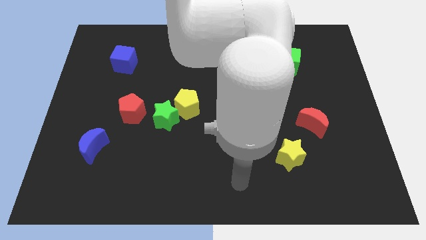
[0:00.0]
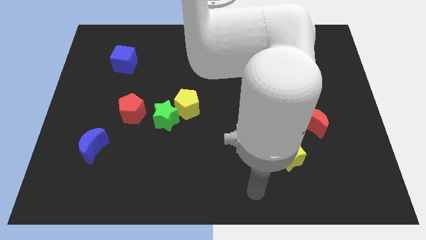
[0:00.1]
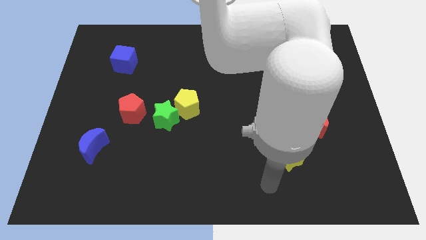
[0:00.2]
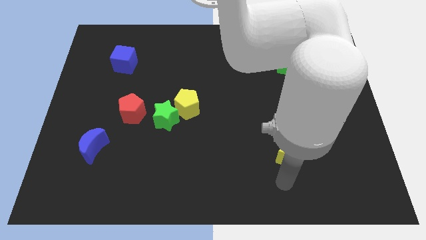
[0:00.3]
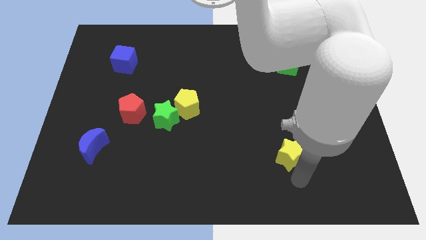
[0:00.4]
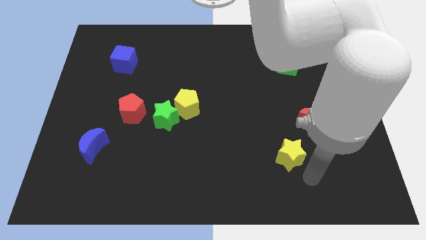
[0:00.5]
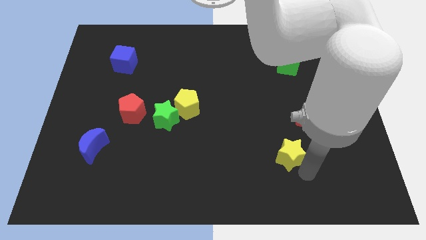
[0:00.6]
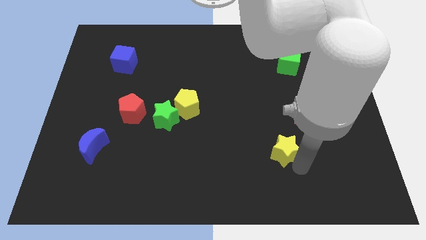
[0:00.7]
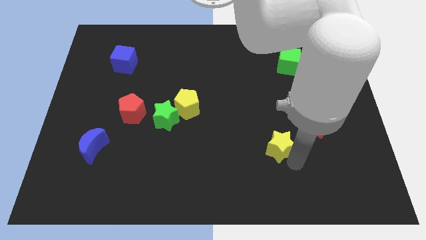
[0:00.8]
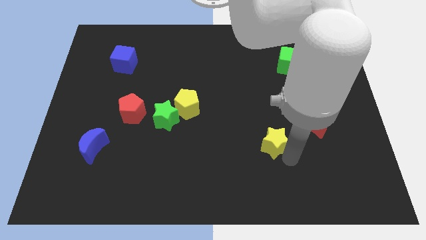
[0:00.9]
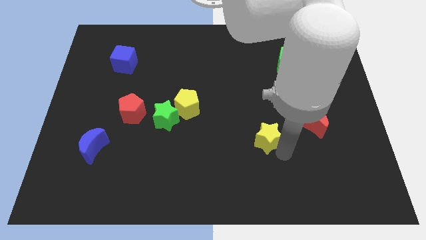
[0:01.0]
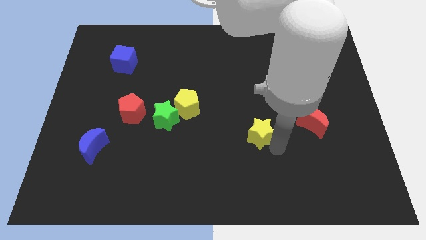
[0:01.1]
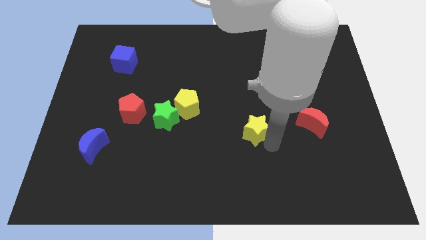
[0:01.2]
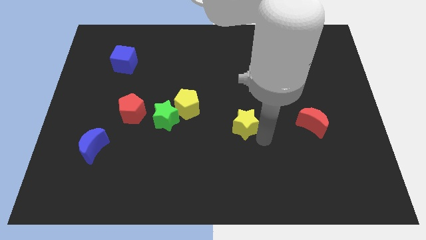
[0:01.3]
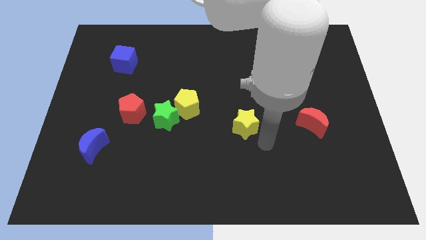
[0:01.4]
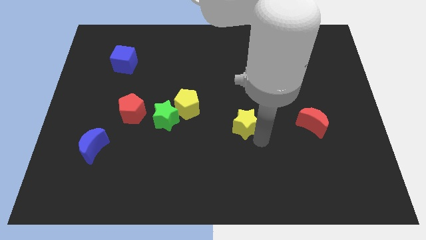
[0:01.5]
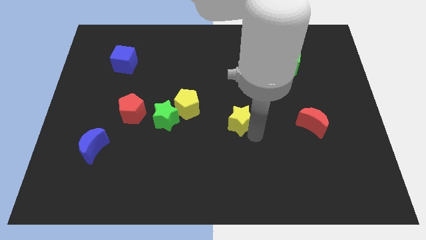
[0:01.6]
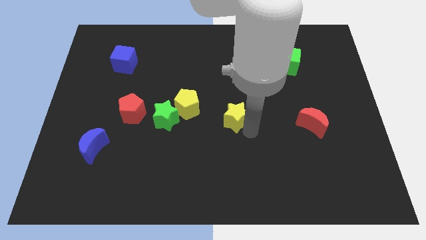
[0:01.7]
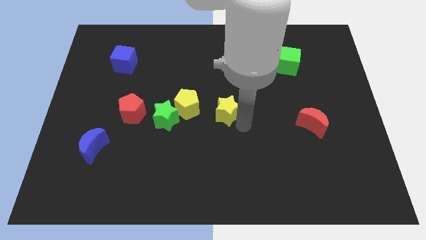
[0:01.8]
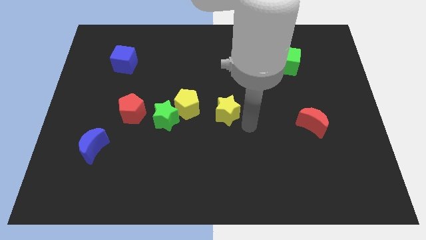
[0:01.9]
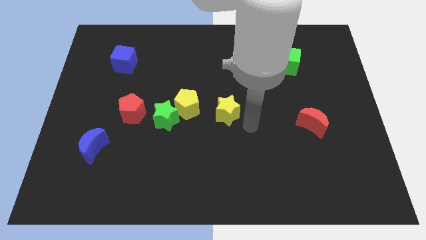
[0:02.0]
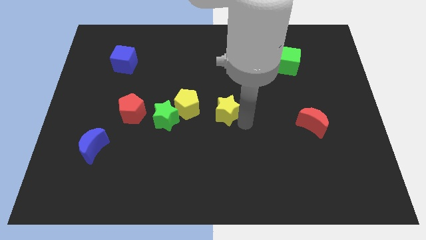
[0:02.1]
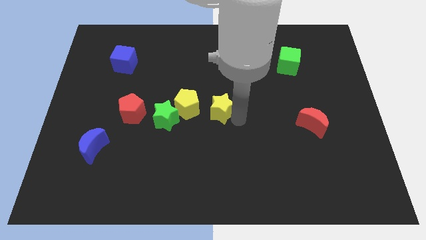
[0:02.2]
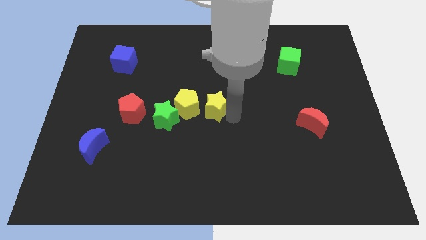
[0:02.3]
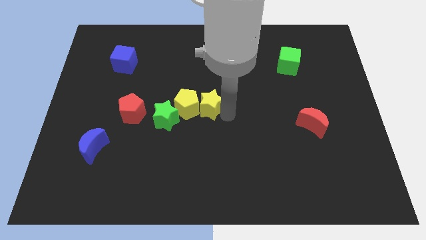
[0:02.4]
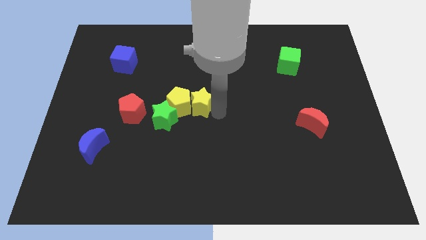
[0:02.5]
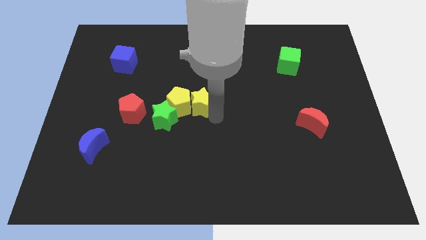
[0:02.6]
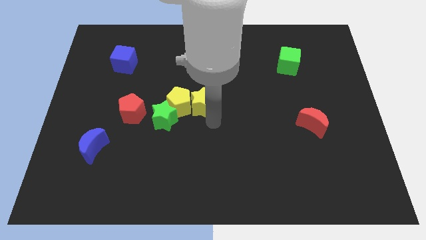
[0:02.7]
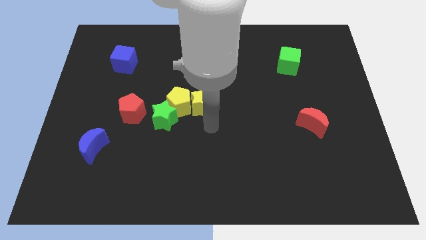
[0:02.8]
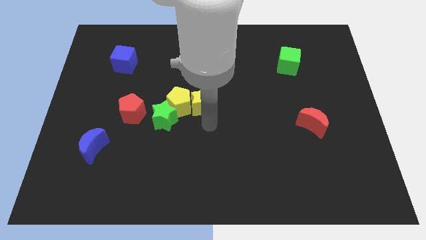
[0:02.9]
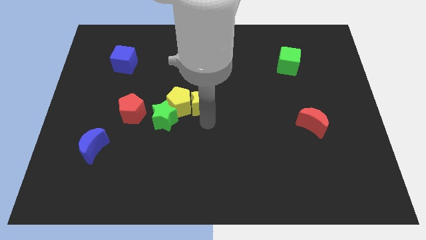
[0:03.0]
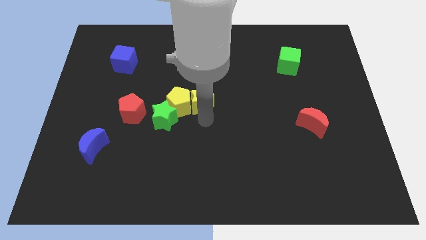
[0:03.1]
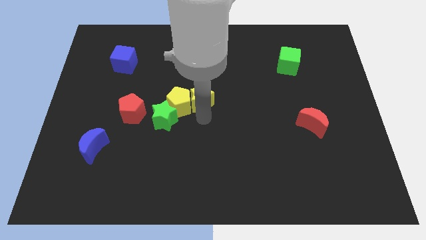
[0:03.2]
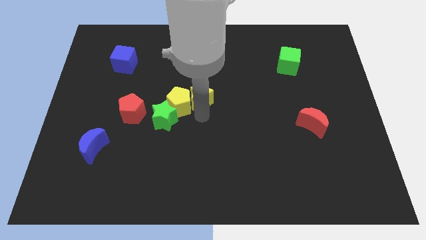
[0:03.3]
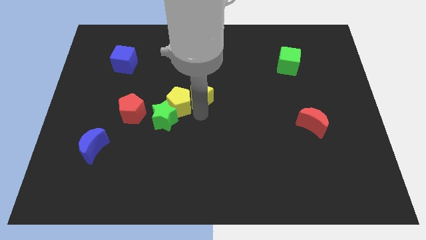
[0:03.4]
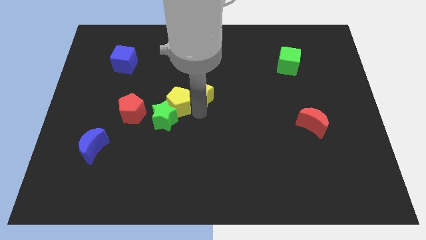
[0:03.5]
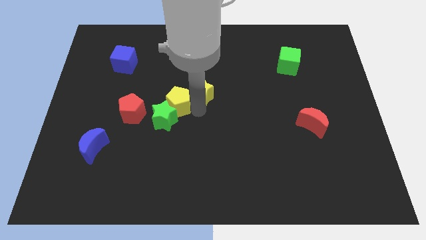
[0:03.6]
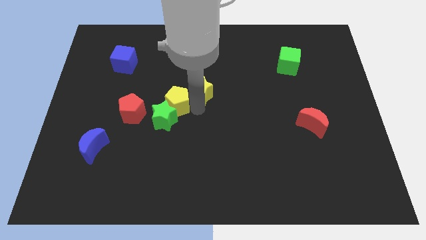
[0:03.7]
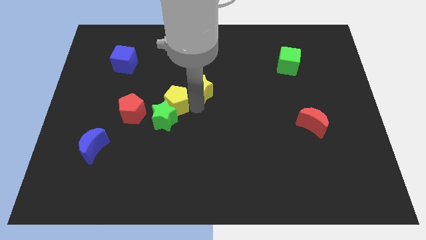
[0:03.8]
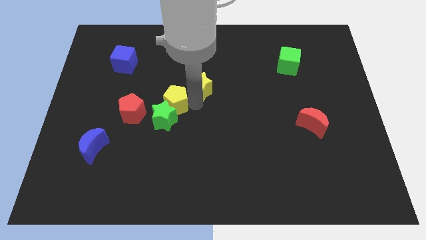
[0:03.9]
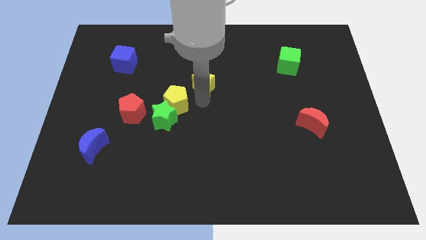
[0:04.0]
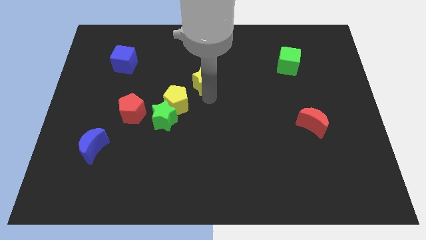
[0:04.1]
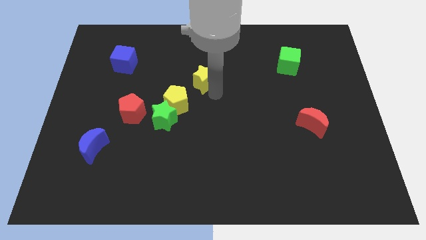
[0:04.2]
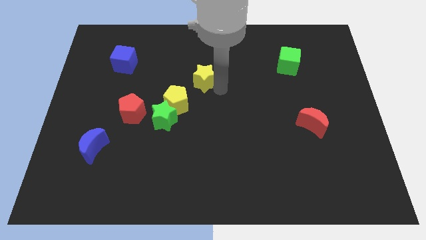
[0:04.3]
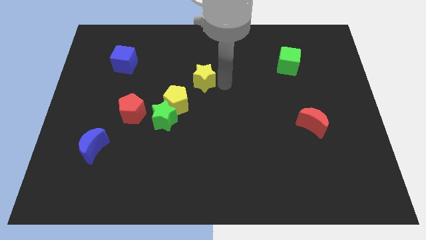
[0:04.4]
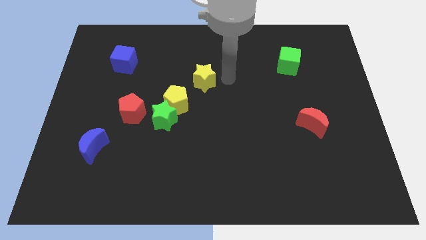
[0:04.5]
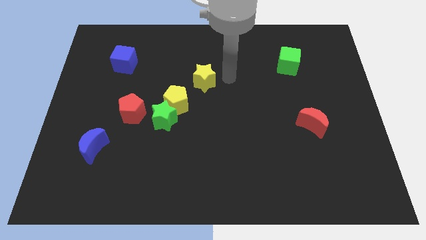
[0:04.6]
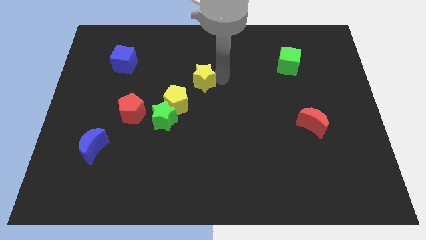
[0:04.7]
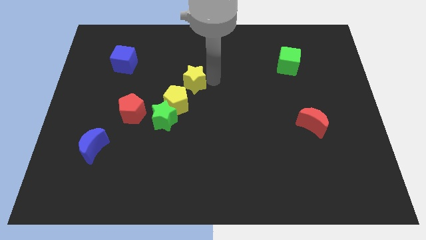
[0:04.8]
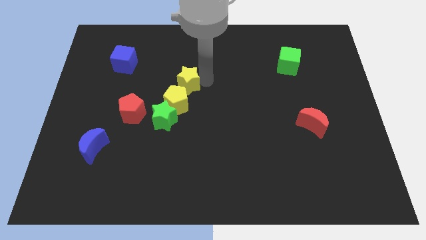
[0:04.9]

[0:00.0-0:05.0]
move the yellow star to the top side of the green star

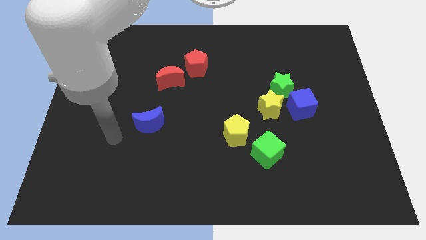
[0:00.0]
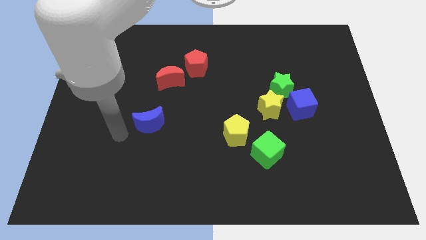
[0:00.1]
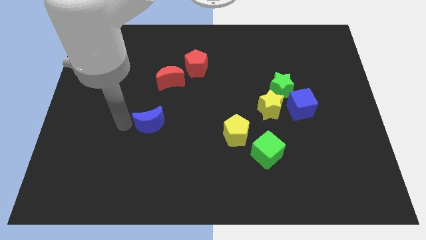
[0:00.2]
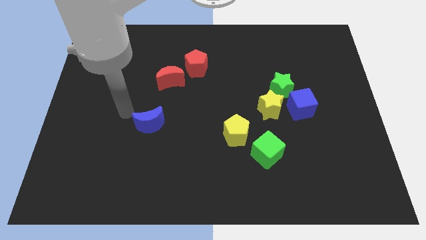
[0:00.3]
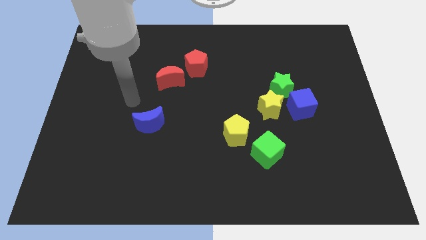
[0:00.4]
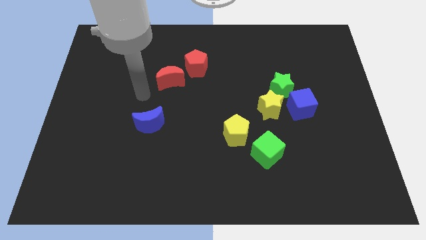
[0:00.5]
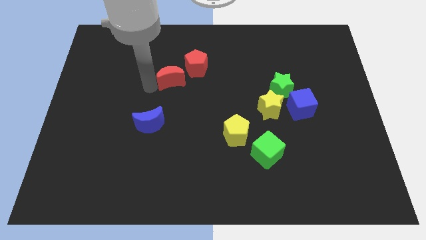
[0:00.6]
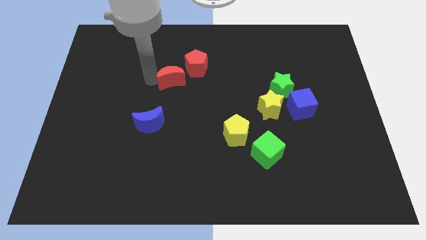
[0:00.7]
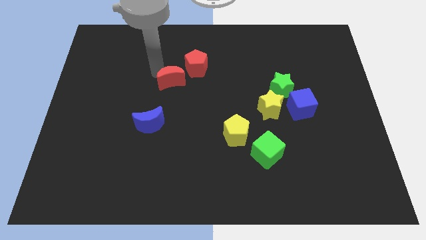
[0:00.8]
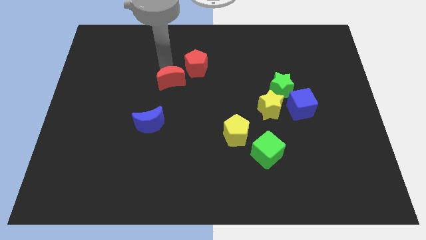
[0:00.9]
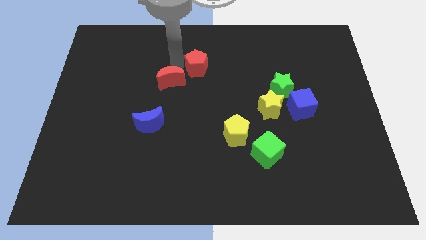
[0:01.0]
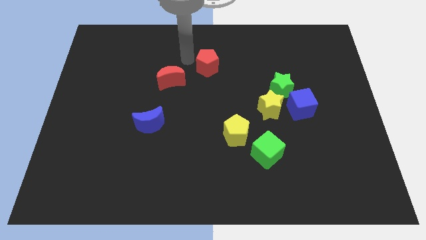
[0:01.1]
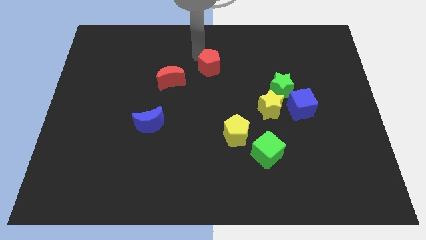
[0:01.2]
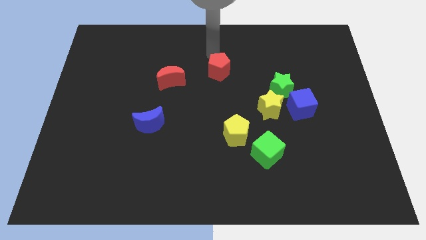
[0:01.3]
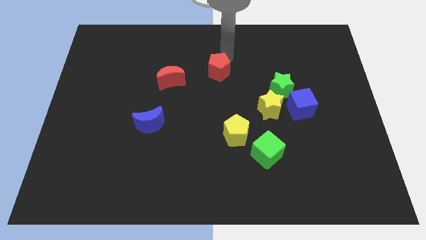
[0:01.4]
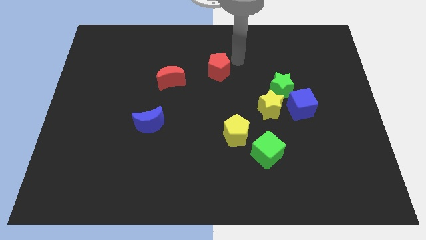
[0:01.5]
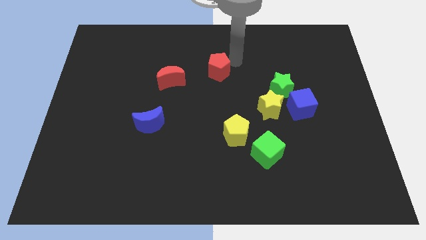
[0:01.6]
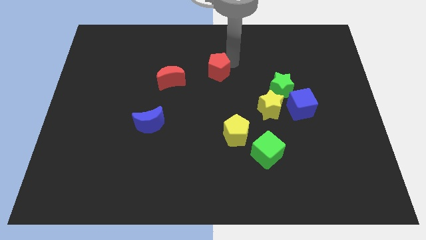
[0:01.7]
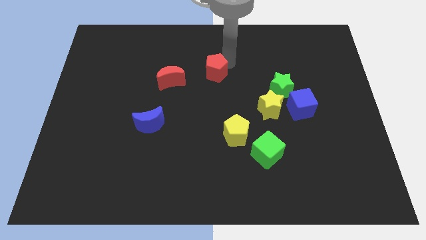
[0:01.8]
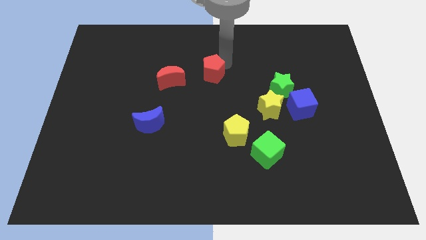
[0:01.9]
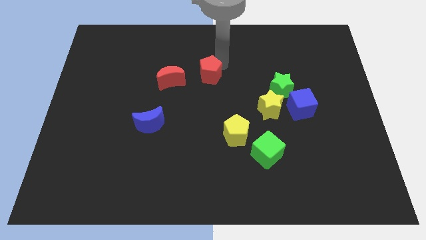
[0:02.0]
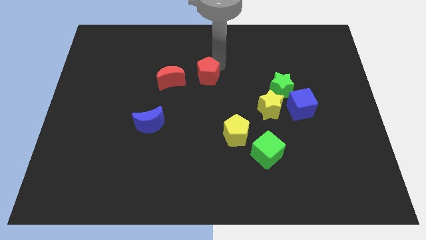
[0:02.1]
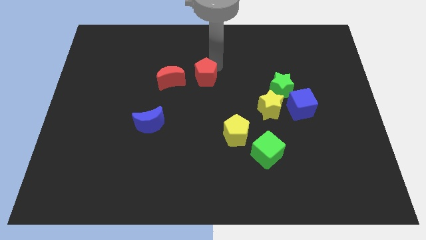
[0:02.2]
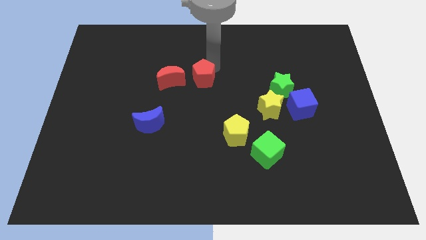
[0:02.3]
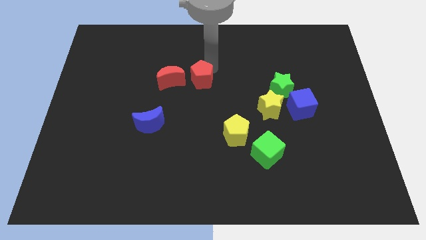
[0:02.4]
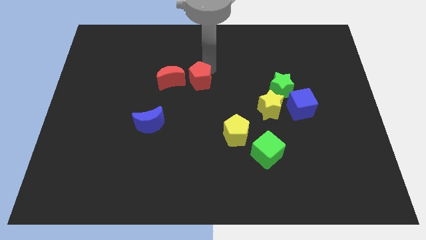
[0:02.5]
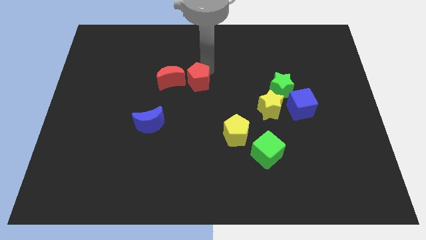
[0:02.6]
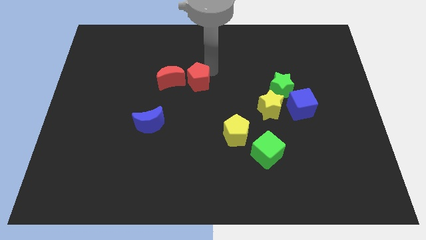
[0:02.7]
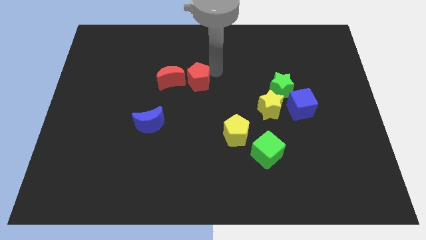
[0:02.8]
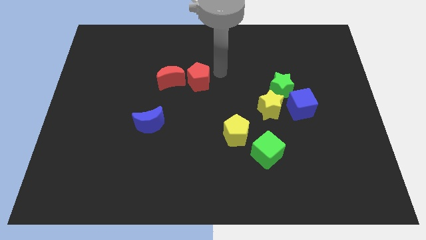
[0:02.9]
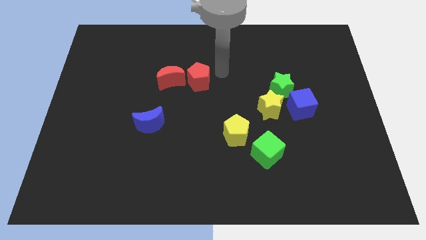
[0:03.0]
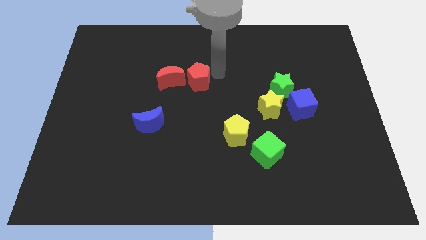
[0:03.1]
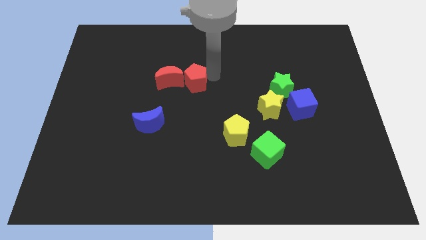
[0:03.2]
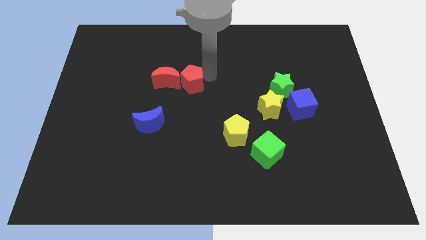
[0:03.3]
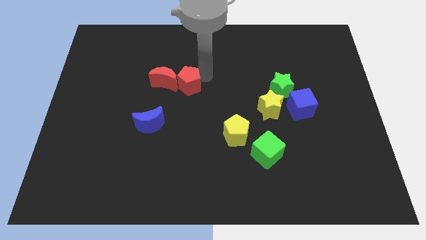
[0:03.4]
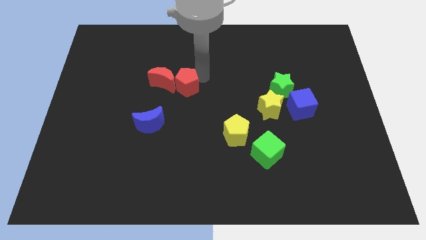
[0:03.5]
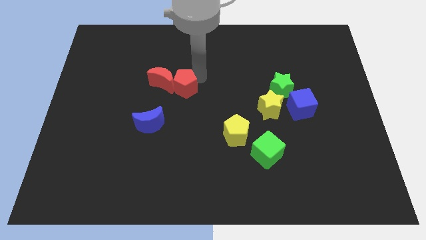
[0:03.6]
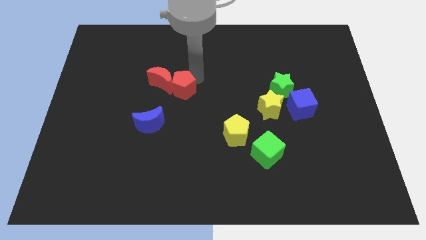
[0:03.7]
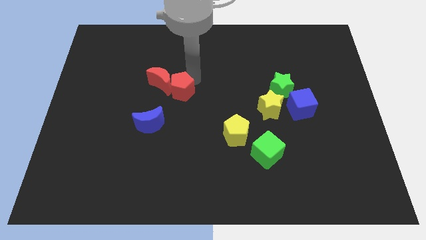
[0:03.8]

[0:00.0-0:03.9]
move the red pentagon diagonally up and to the right of the blue moon
